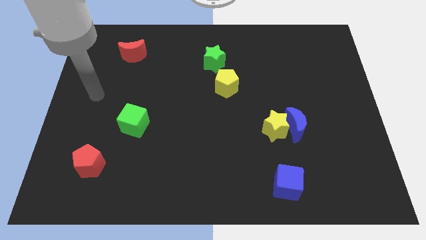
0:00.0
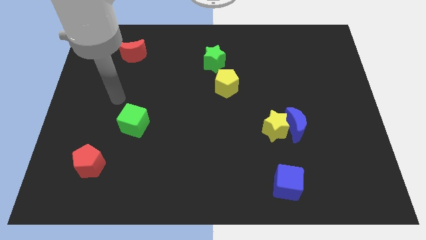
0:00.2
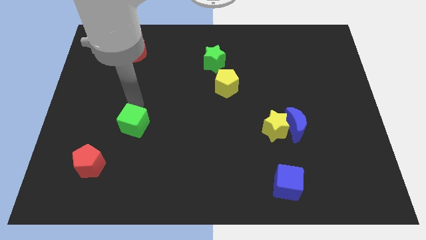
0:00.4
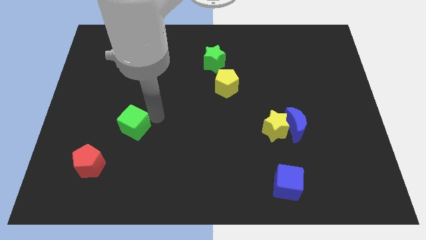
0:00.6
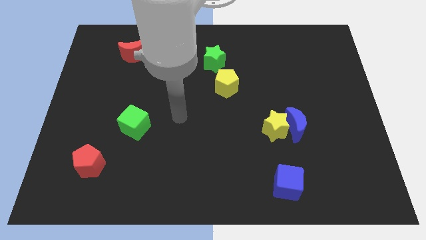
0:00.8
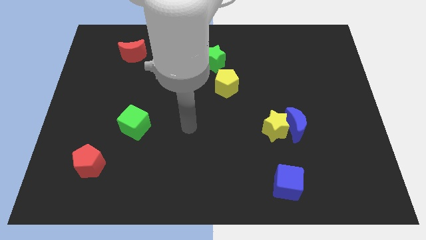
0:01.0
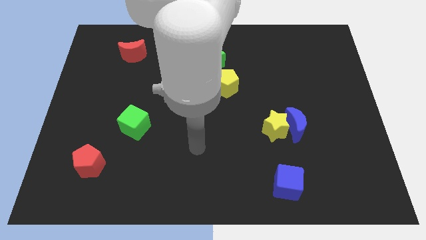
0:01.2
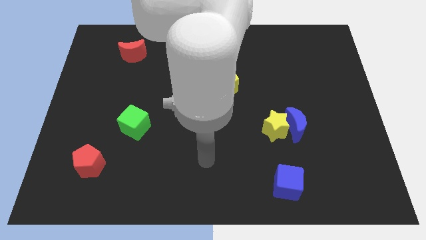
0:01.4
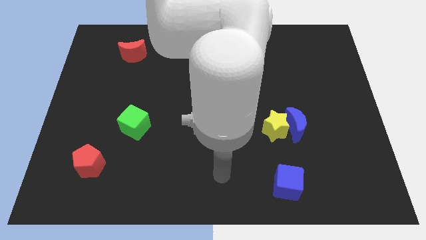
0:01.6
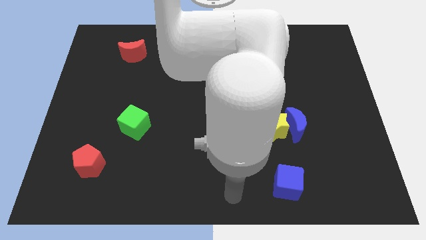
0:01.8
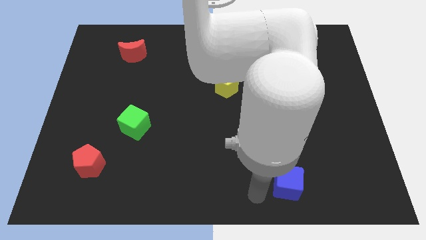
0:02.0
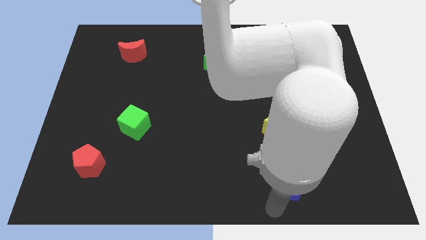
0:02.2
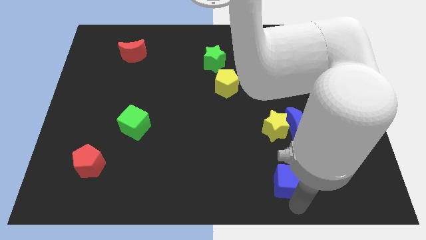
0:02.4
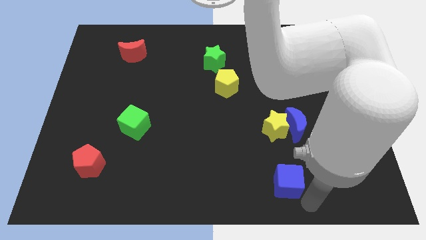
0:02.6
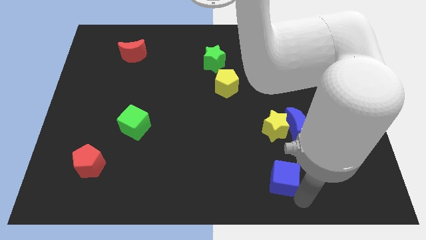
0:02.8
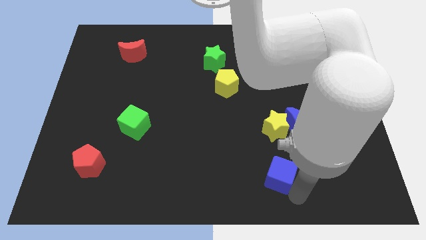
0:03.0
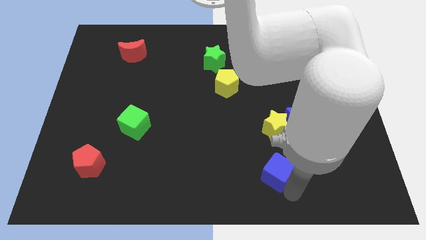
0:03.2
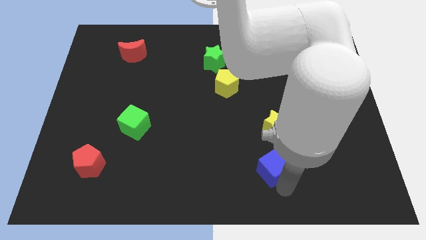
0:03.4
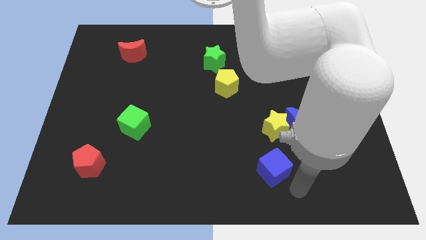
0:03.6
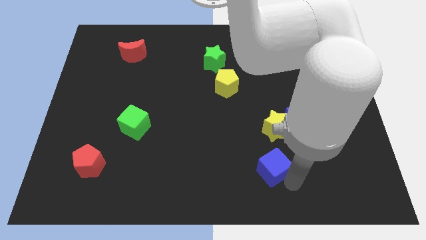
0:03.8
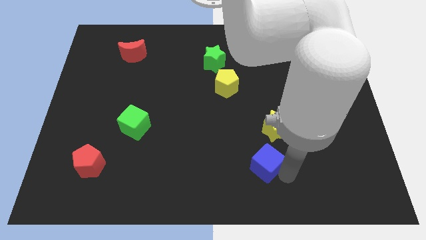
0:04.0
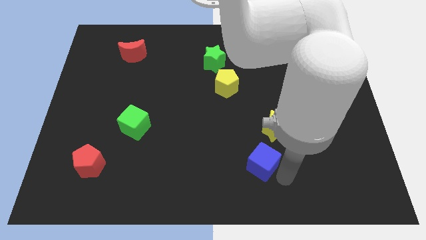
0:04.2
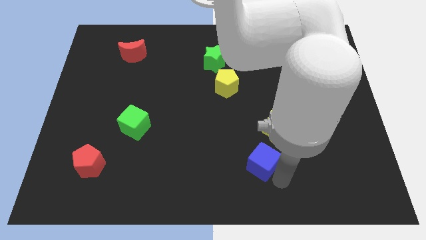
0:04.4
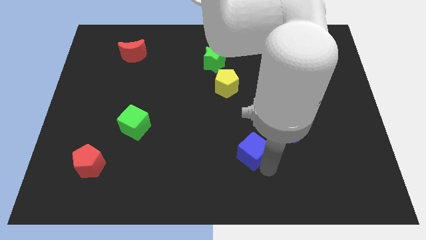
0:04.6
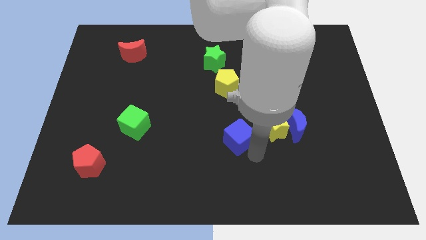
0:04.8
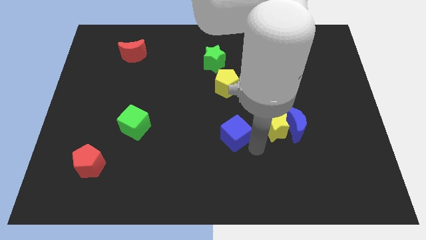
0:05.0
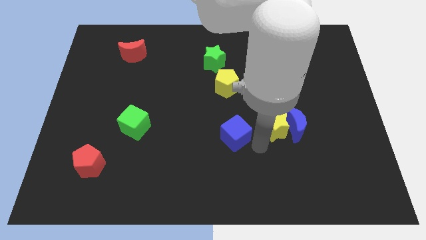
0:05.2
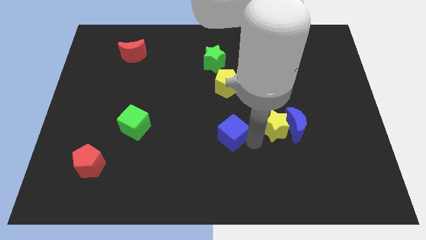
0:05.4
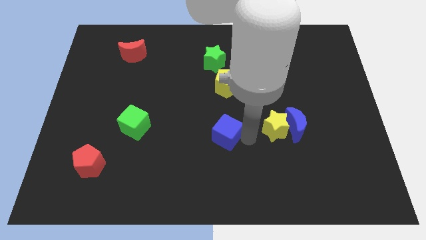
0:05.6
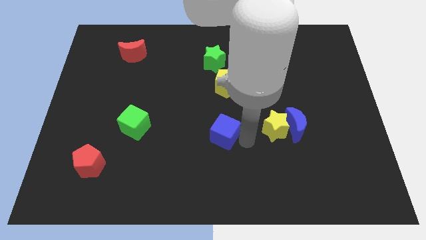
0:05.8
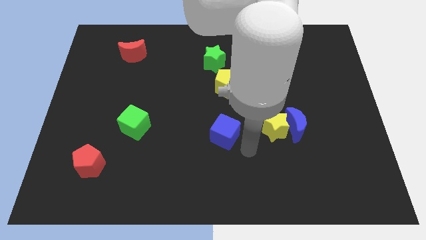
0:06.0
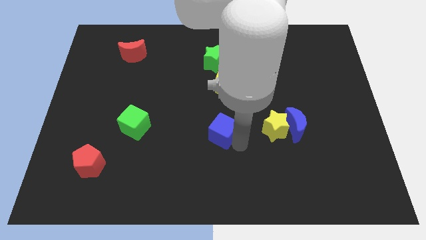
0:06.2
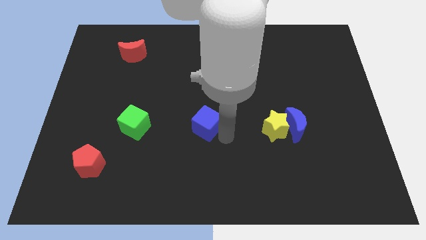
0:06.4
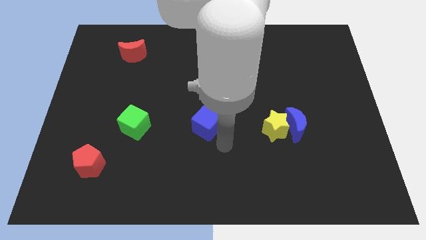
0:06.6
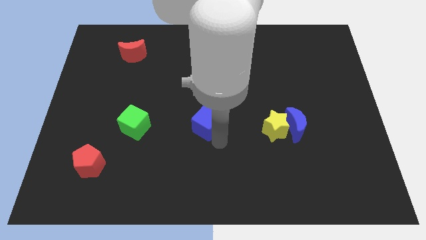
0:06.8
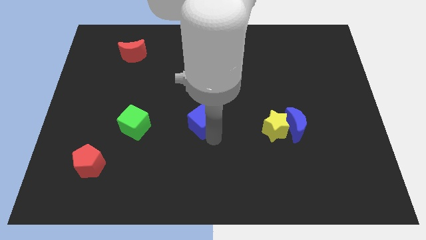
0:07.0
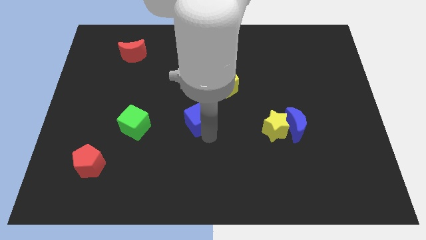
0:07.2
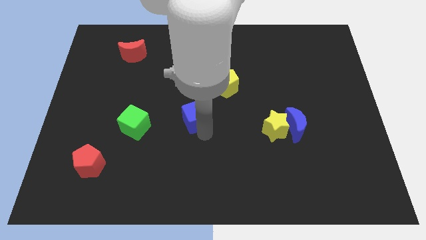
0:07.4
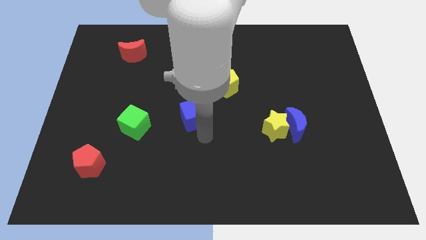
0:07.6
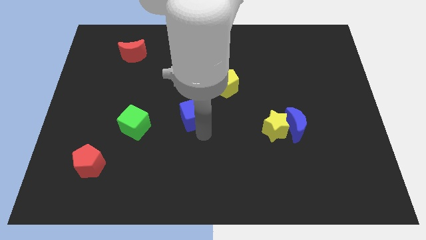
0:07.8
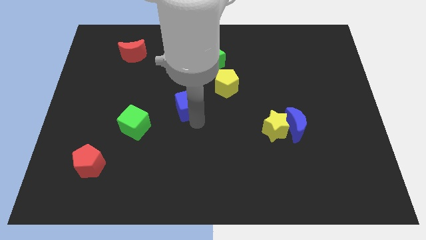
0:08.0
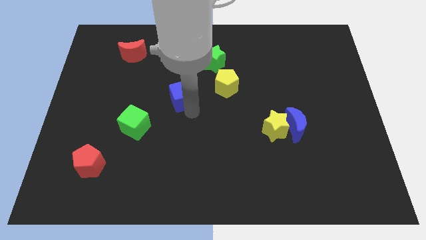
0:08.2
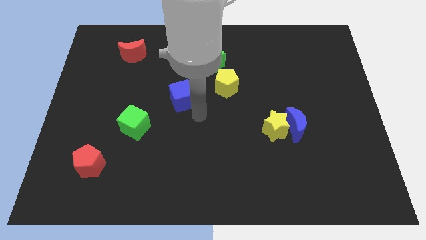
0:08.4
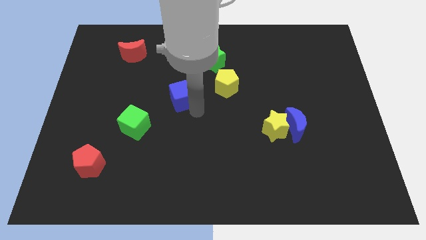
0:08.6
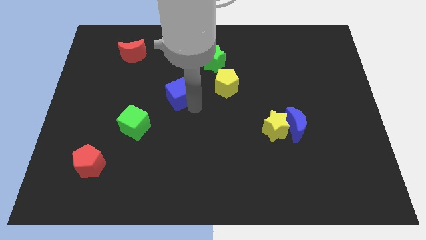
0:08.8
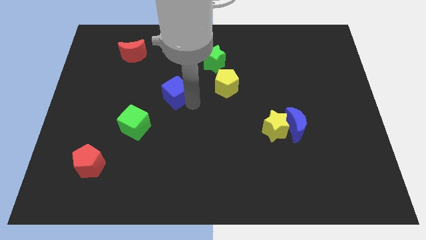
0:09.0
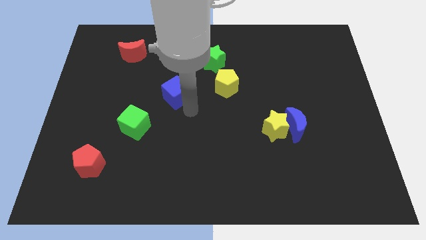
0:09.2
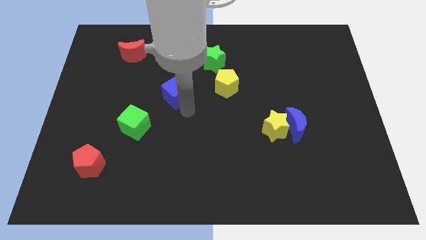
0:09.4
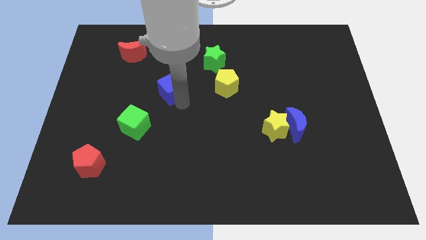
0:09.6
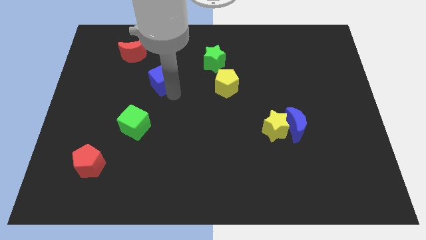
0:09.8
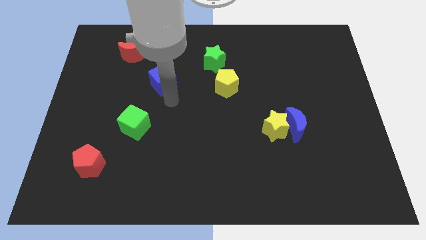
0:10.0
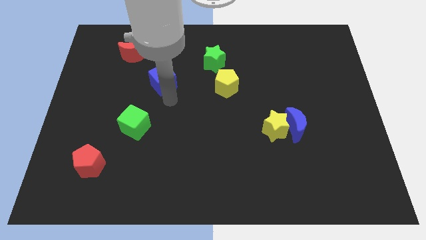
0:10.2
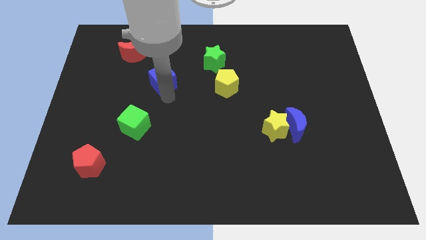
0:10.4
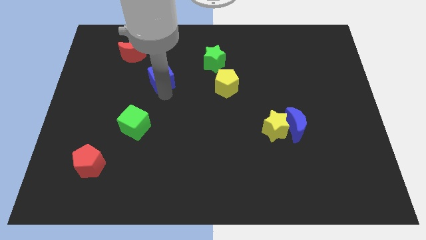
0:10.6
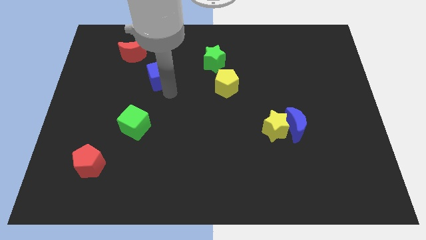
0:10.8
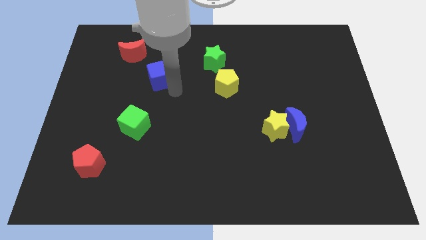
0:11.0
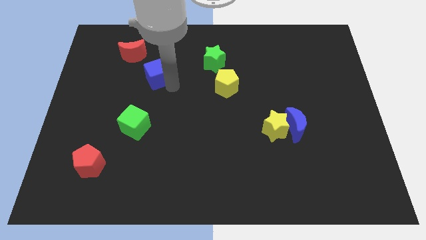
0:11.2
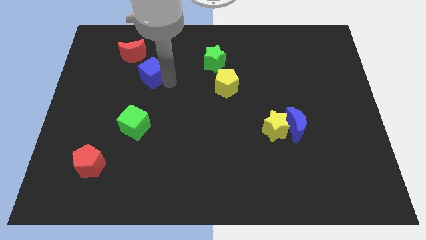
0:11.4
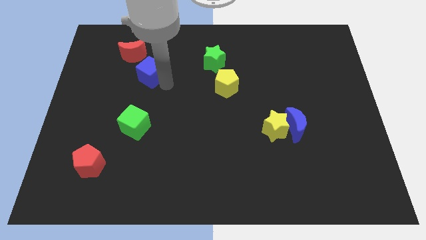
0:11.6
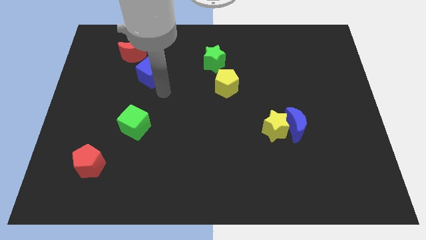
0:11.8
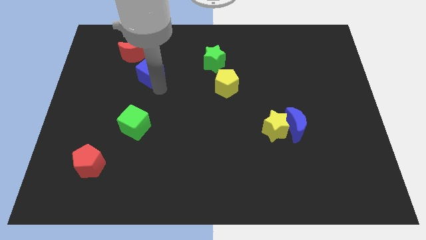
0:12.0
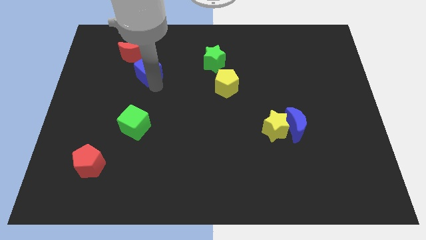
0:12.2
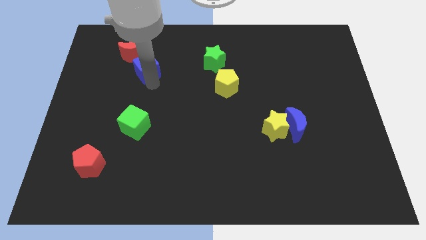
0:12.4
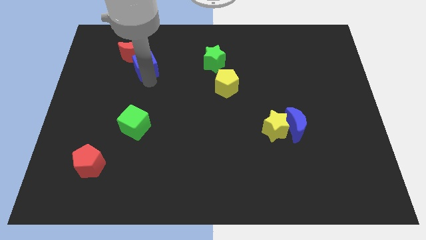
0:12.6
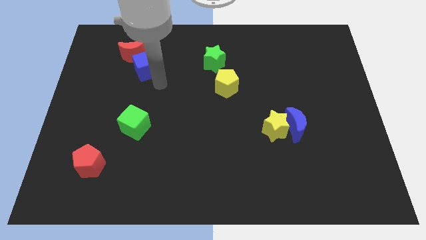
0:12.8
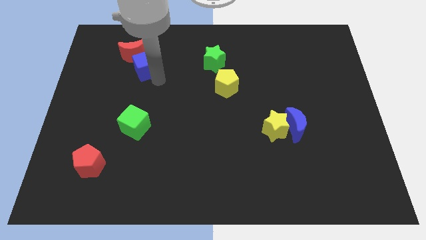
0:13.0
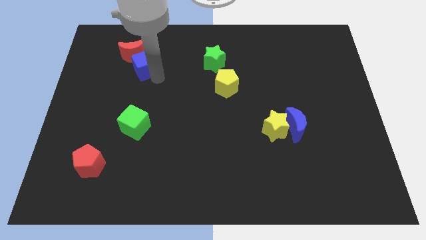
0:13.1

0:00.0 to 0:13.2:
put the blue cube towards the red moon
